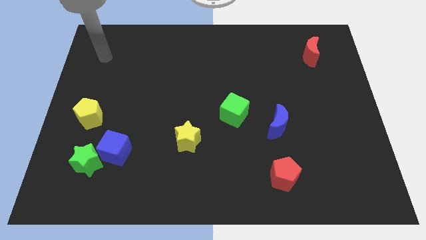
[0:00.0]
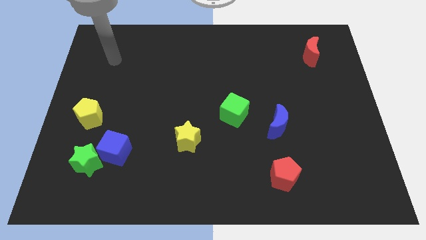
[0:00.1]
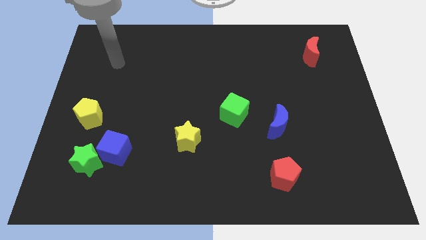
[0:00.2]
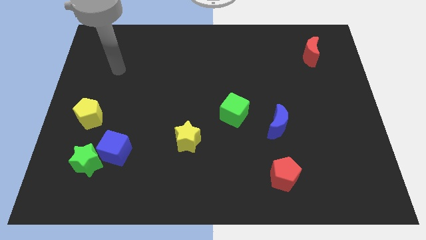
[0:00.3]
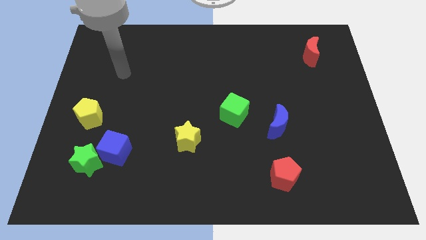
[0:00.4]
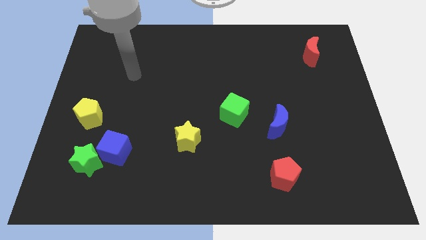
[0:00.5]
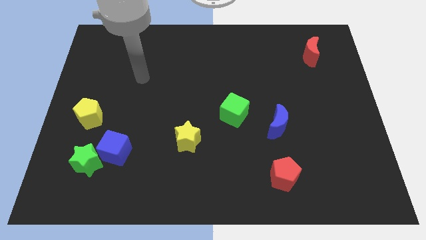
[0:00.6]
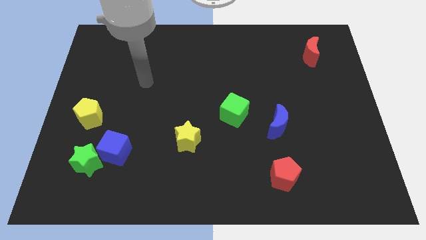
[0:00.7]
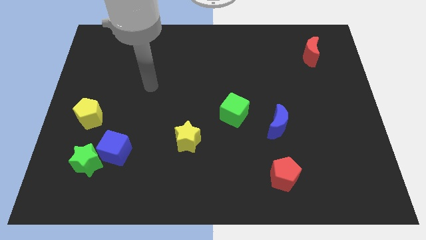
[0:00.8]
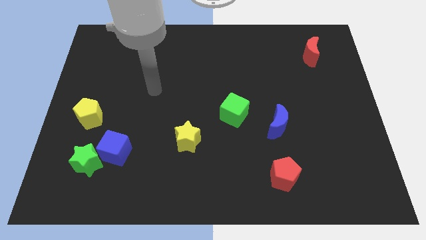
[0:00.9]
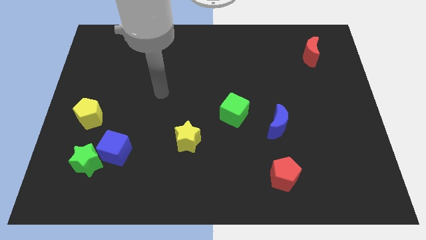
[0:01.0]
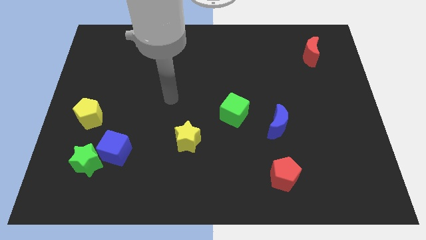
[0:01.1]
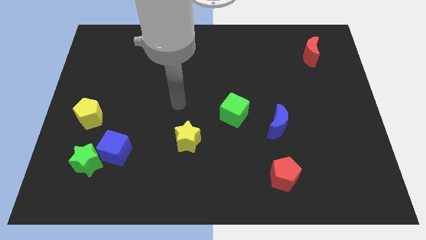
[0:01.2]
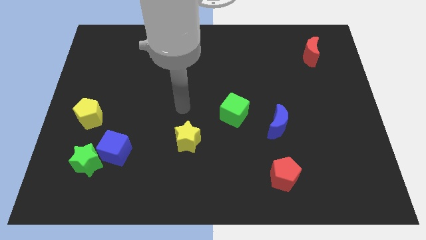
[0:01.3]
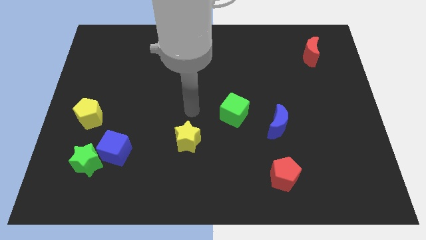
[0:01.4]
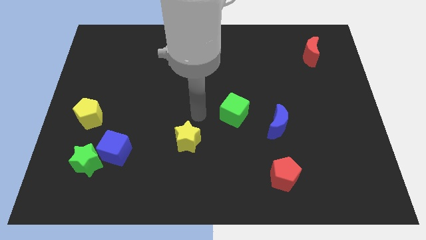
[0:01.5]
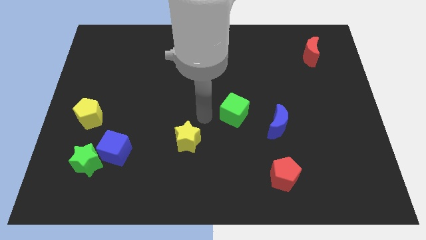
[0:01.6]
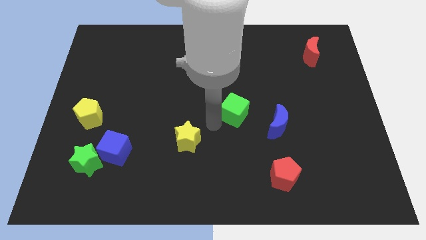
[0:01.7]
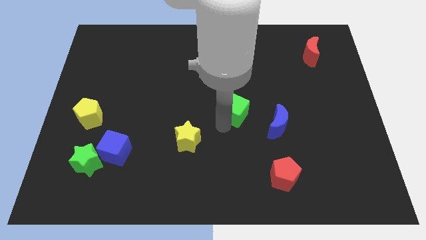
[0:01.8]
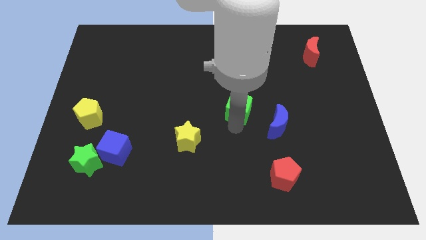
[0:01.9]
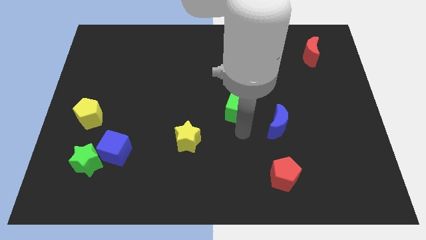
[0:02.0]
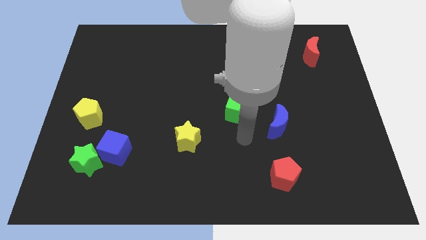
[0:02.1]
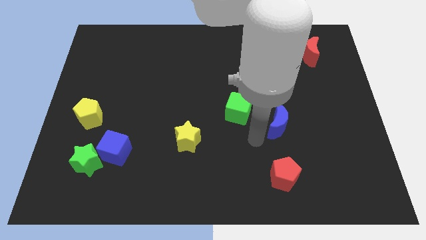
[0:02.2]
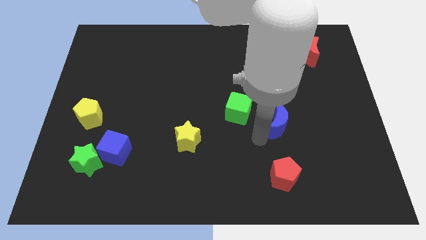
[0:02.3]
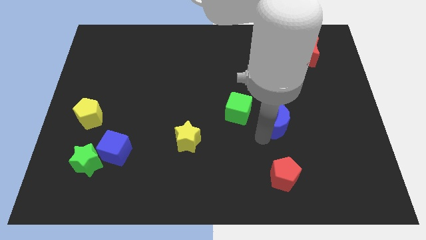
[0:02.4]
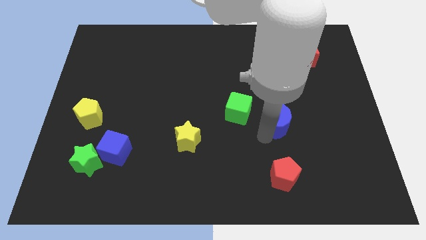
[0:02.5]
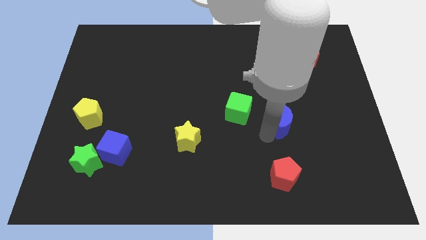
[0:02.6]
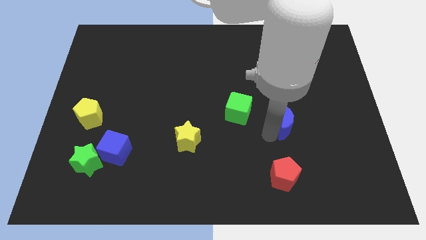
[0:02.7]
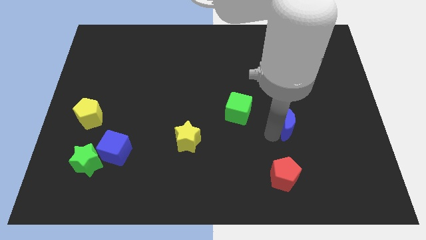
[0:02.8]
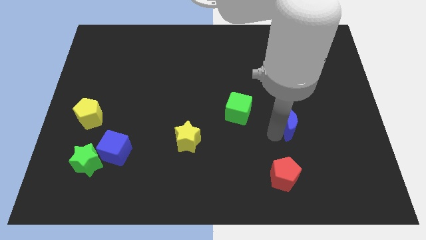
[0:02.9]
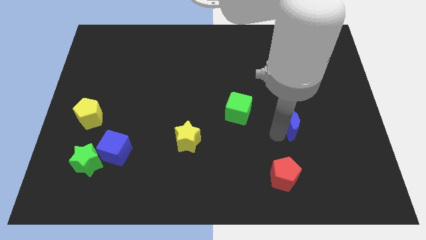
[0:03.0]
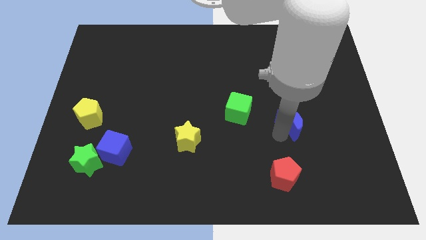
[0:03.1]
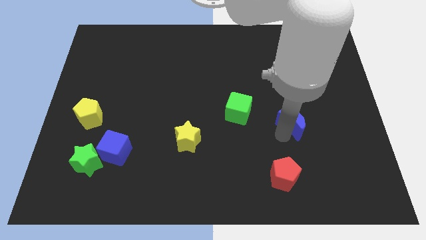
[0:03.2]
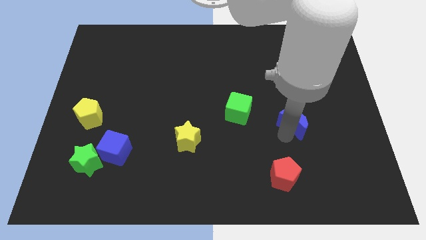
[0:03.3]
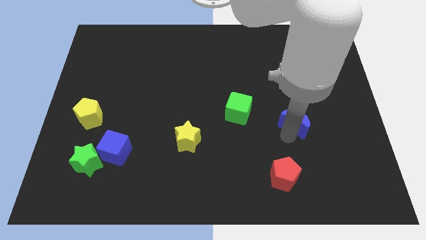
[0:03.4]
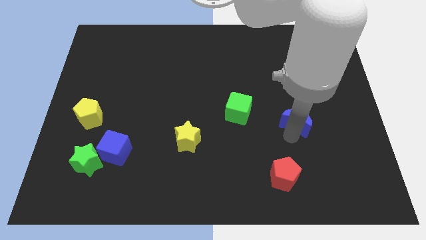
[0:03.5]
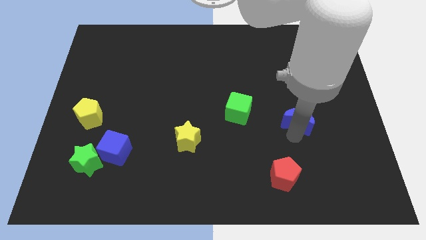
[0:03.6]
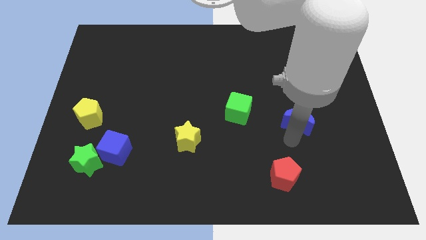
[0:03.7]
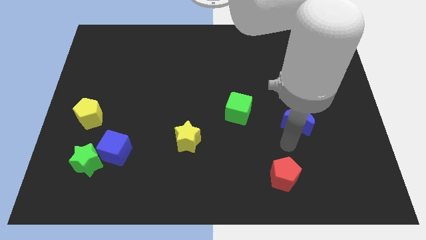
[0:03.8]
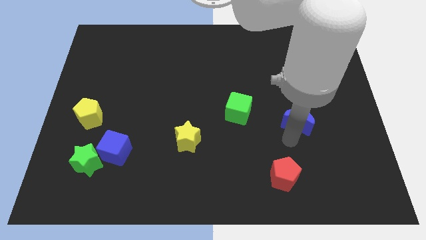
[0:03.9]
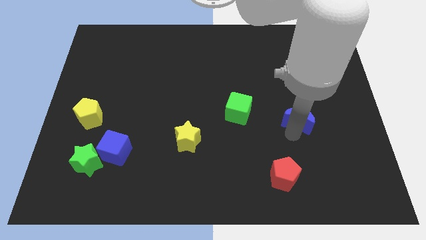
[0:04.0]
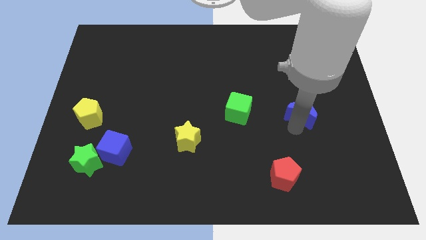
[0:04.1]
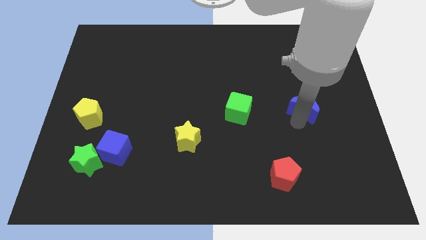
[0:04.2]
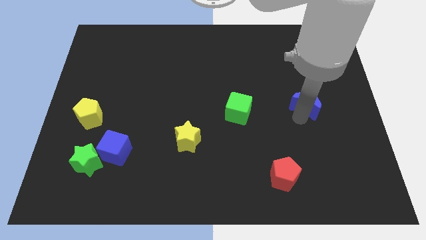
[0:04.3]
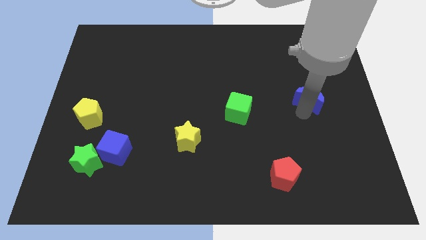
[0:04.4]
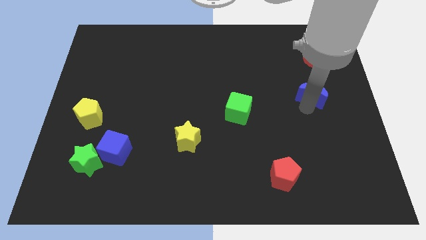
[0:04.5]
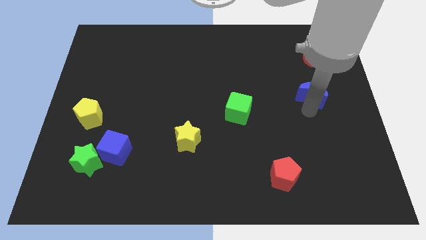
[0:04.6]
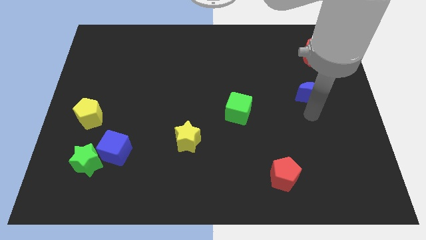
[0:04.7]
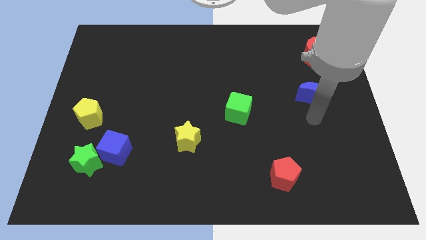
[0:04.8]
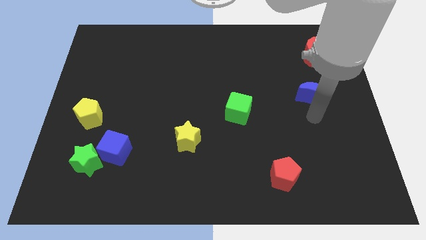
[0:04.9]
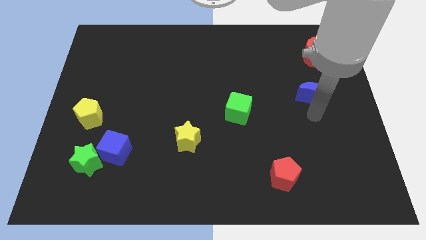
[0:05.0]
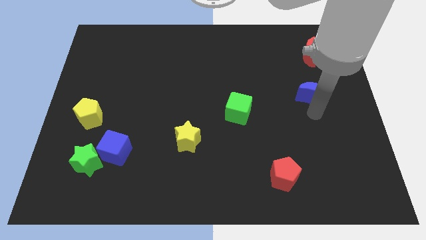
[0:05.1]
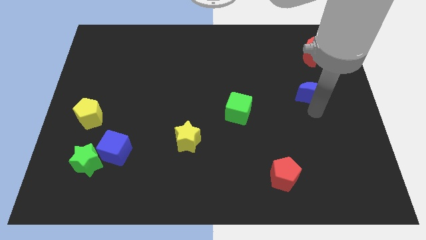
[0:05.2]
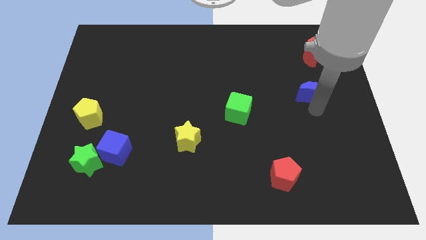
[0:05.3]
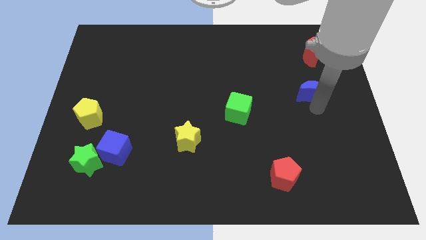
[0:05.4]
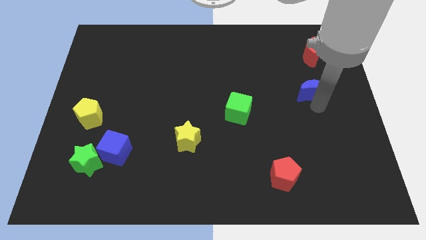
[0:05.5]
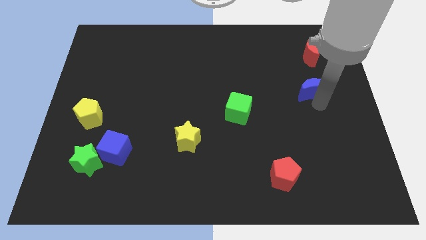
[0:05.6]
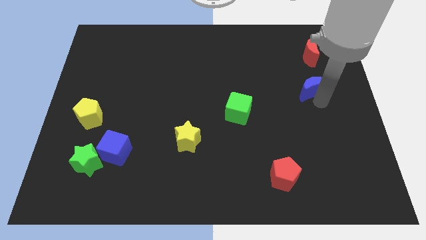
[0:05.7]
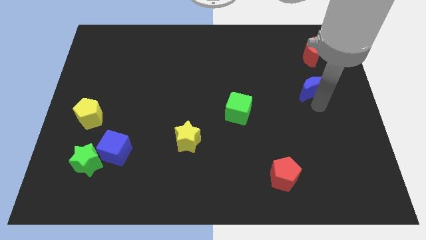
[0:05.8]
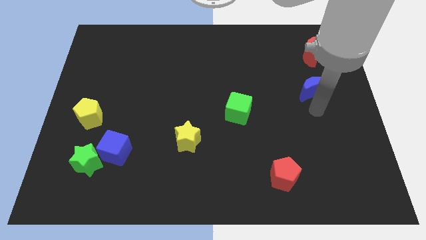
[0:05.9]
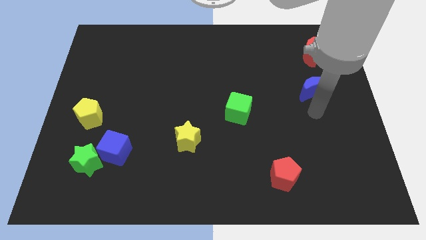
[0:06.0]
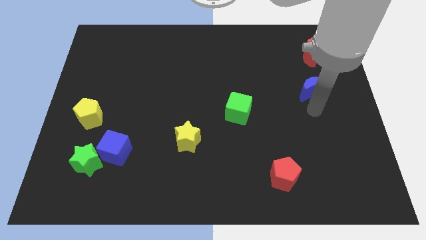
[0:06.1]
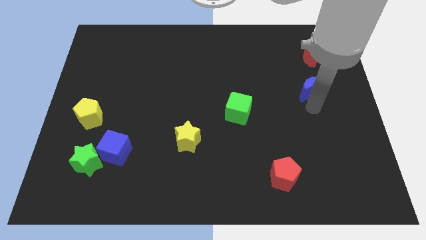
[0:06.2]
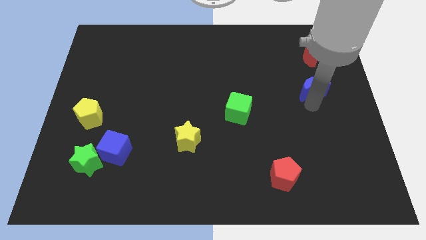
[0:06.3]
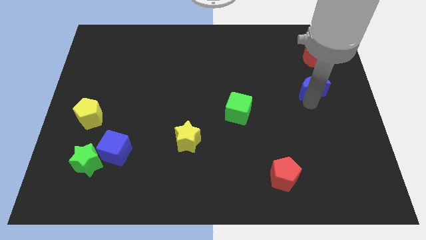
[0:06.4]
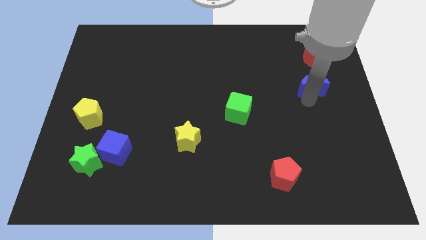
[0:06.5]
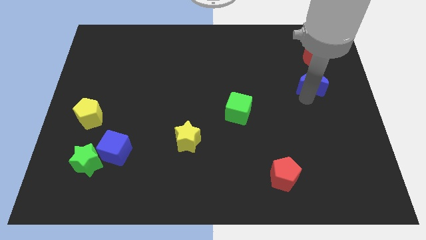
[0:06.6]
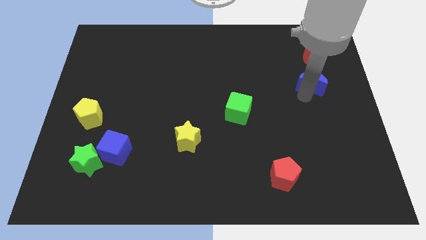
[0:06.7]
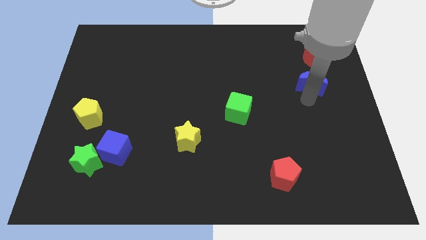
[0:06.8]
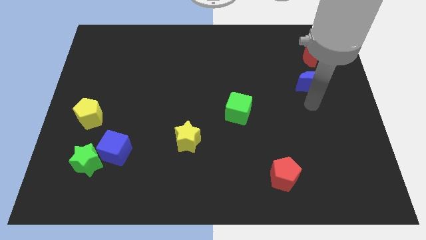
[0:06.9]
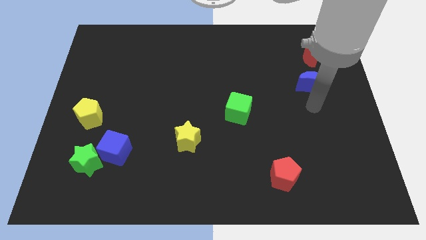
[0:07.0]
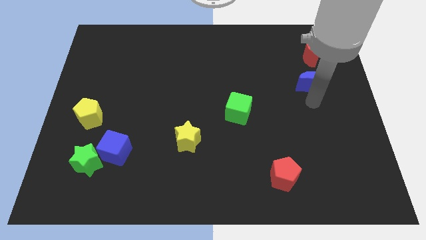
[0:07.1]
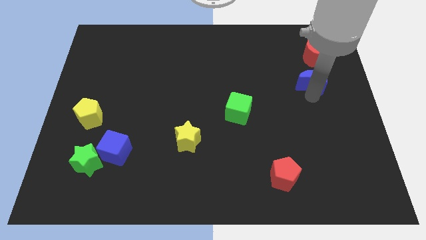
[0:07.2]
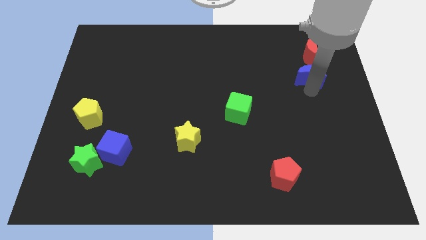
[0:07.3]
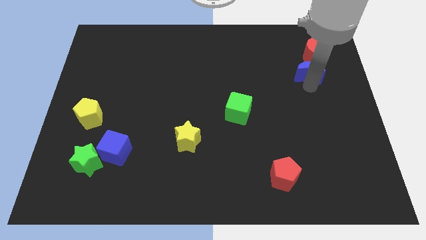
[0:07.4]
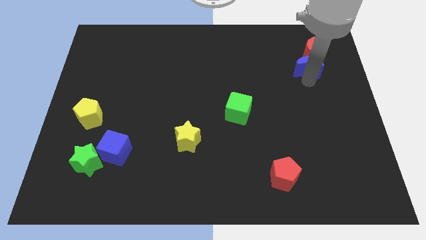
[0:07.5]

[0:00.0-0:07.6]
move the blue moon close to the red moon
